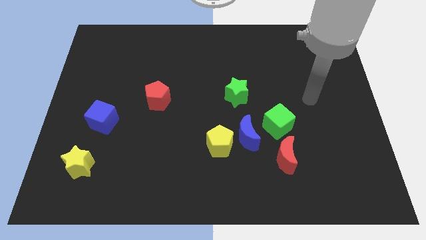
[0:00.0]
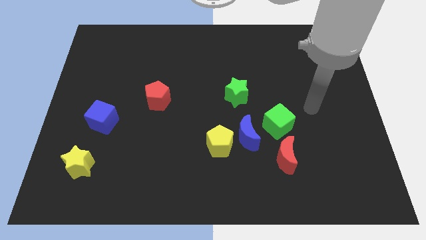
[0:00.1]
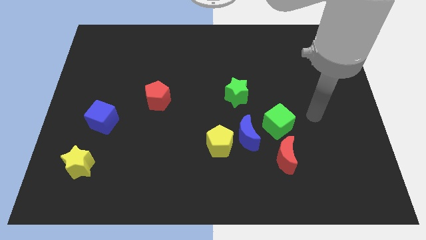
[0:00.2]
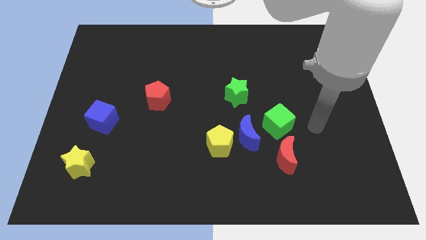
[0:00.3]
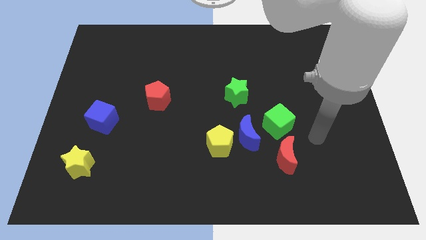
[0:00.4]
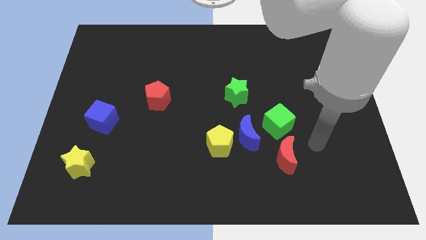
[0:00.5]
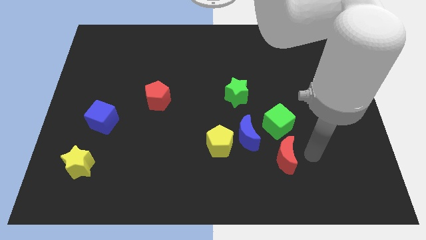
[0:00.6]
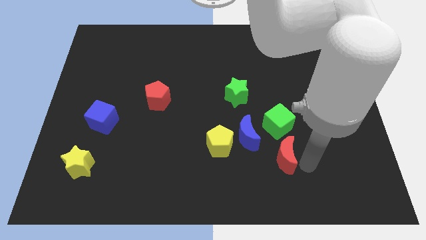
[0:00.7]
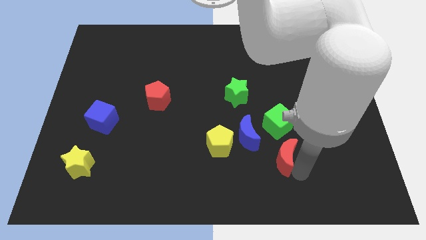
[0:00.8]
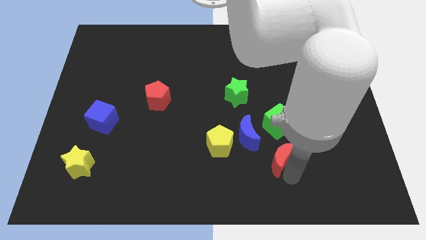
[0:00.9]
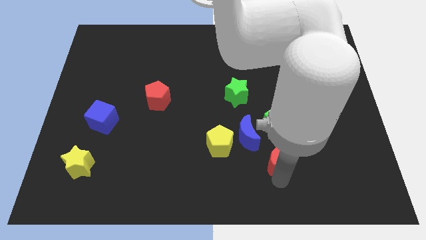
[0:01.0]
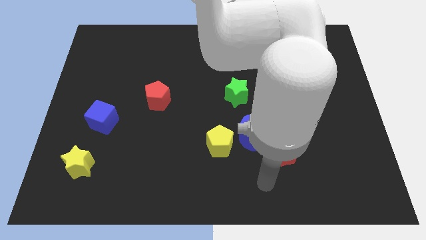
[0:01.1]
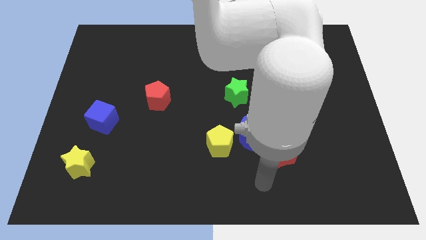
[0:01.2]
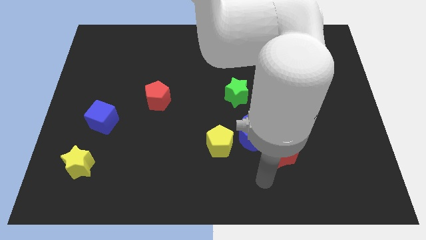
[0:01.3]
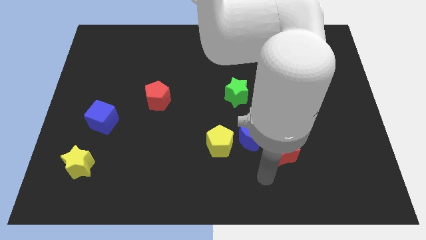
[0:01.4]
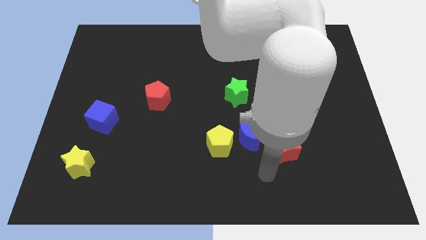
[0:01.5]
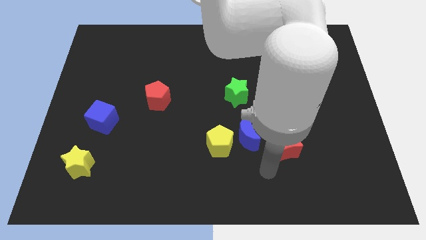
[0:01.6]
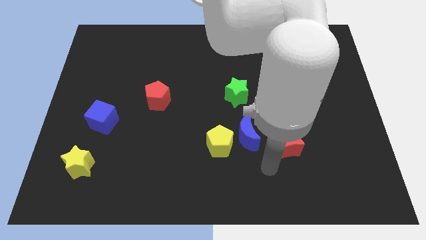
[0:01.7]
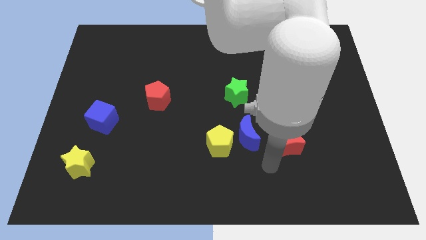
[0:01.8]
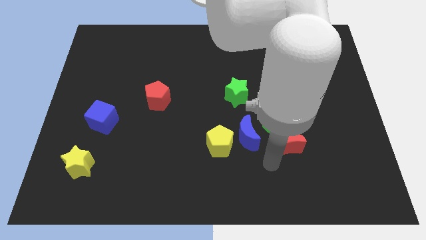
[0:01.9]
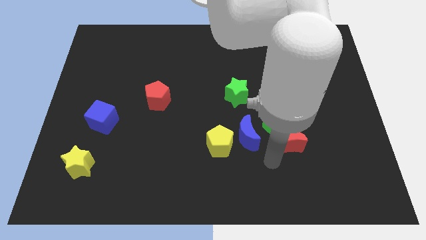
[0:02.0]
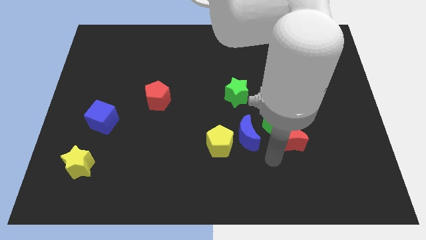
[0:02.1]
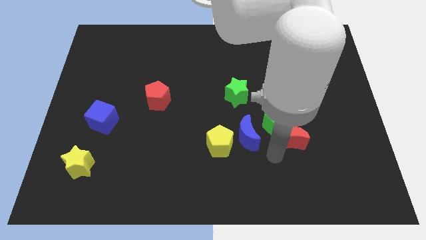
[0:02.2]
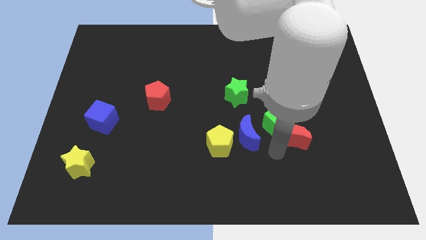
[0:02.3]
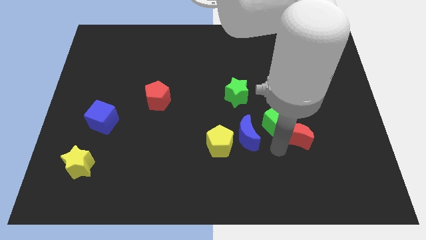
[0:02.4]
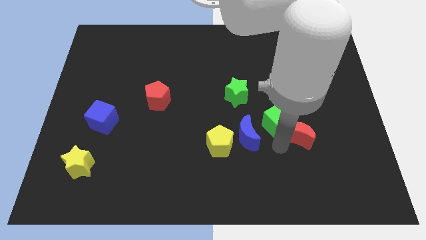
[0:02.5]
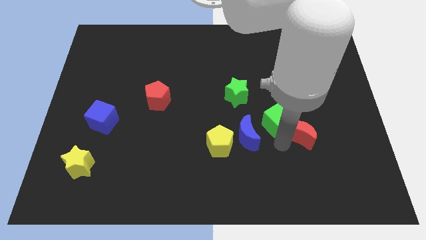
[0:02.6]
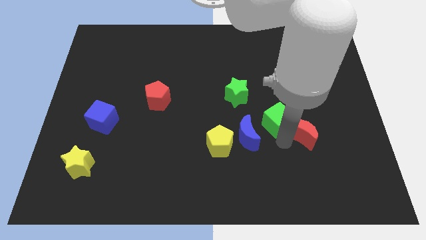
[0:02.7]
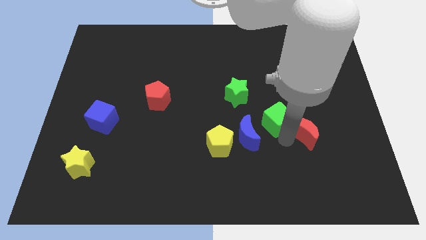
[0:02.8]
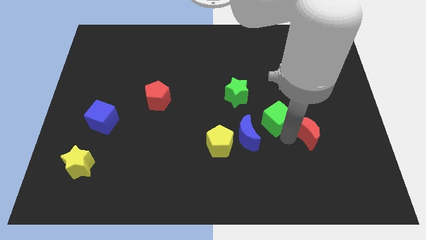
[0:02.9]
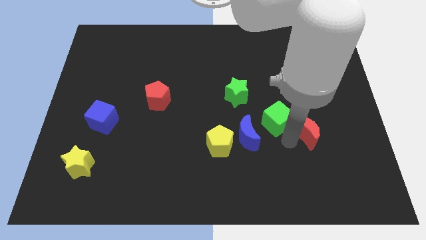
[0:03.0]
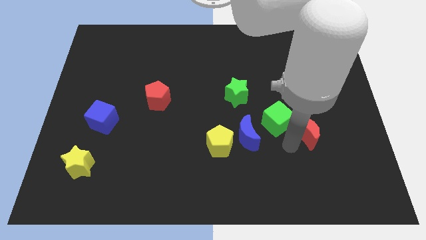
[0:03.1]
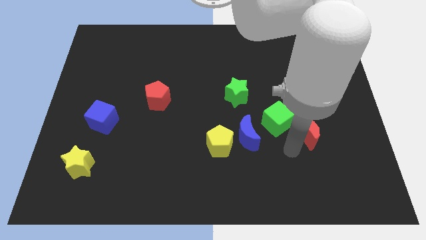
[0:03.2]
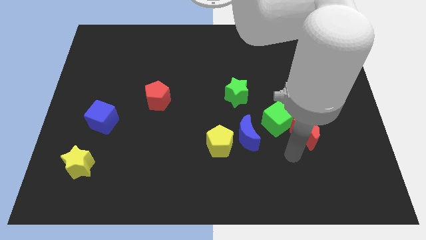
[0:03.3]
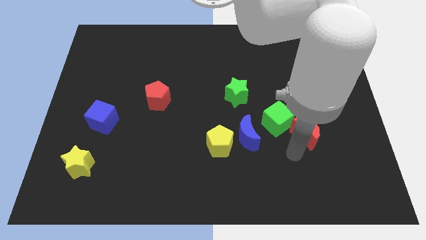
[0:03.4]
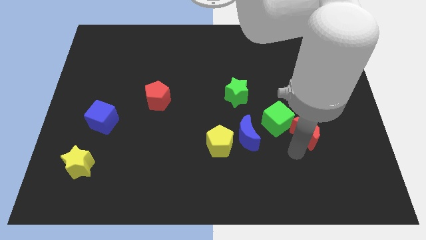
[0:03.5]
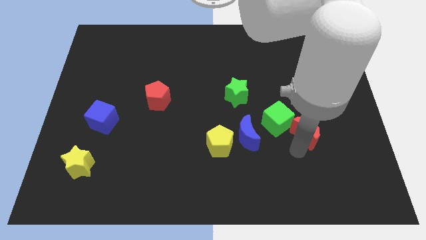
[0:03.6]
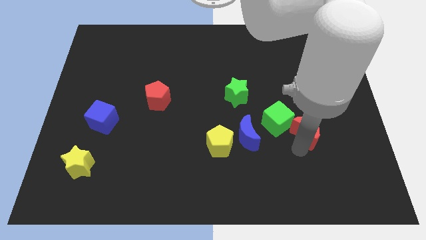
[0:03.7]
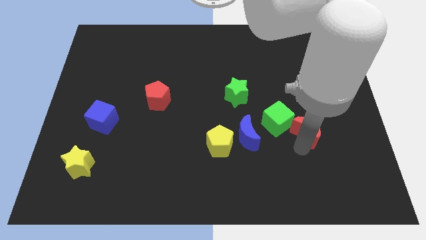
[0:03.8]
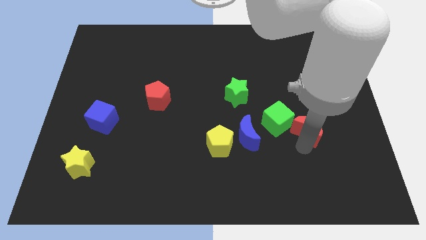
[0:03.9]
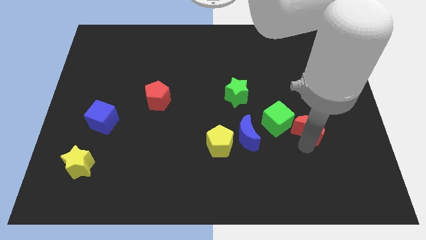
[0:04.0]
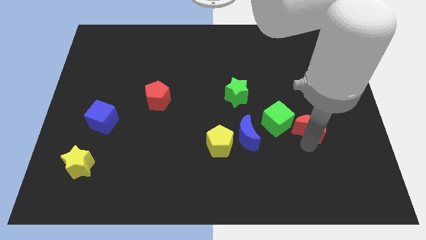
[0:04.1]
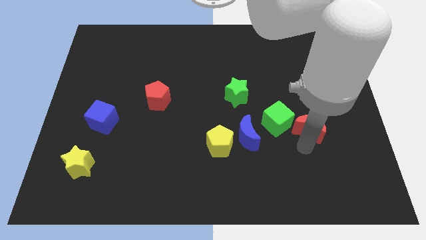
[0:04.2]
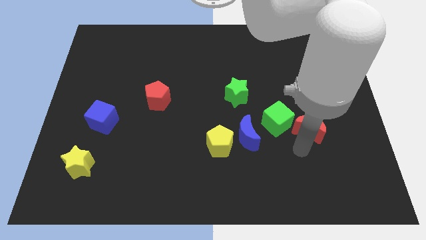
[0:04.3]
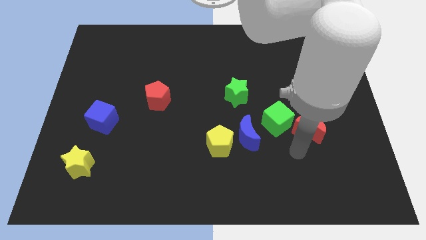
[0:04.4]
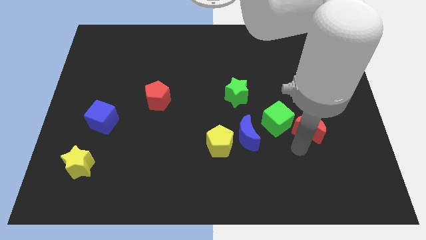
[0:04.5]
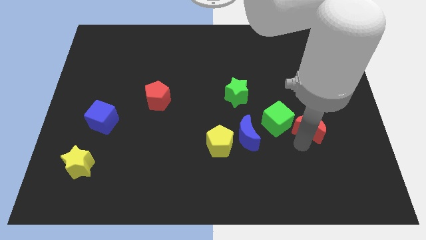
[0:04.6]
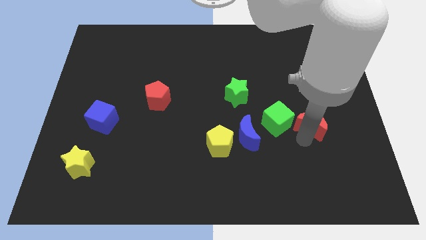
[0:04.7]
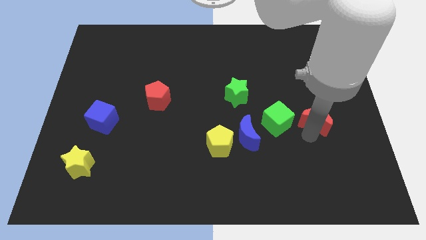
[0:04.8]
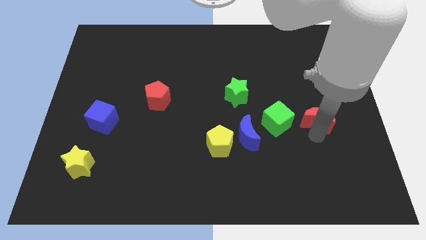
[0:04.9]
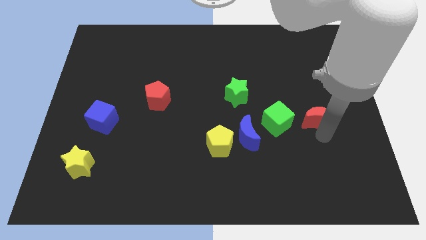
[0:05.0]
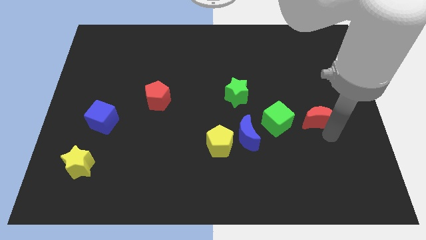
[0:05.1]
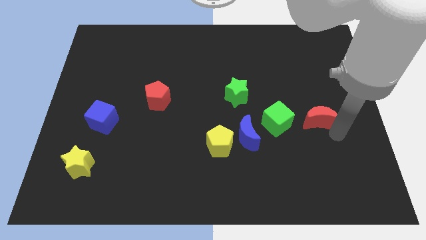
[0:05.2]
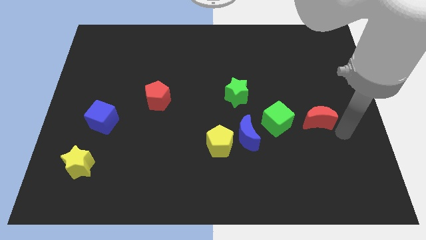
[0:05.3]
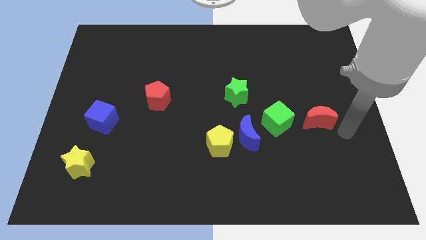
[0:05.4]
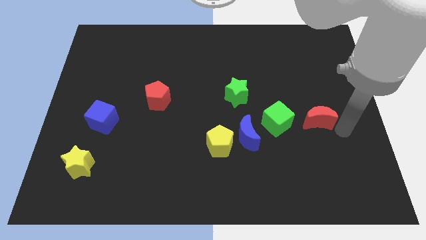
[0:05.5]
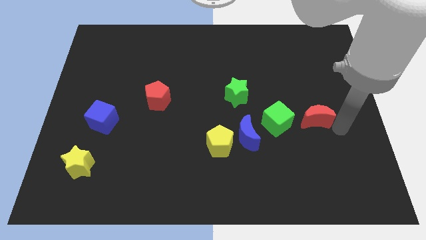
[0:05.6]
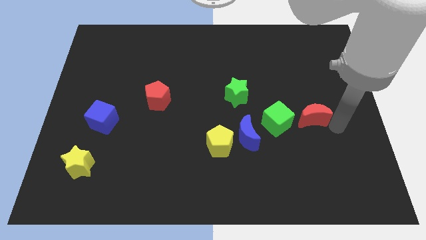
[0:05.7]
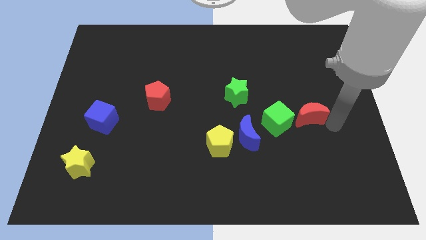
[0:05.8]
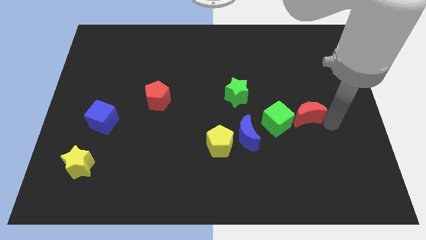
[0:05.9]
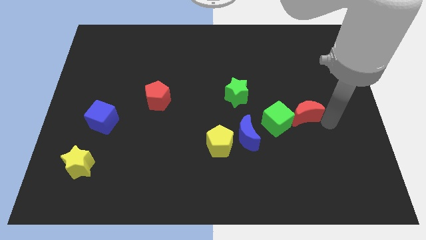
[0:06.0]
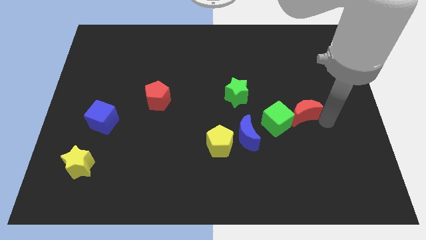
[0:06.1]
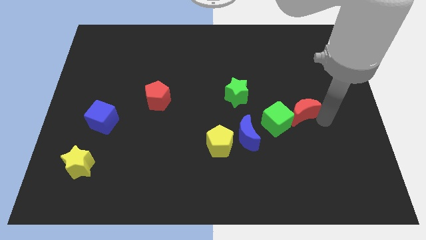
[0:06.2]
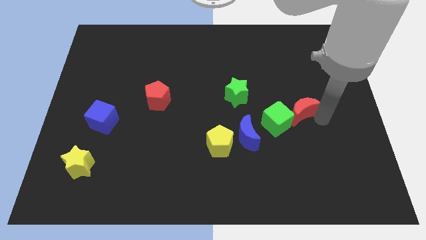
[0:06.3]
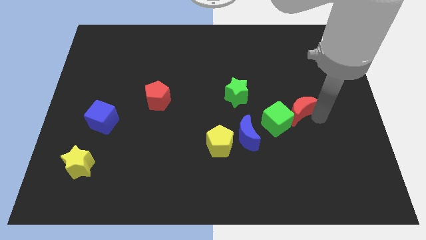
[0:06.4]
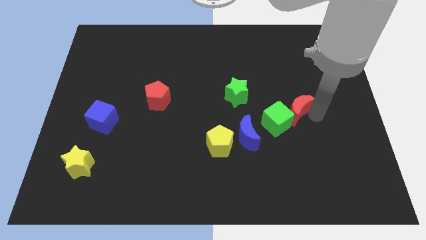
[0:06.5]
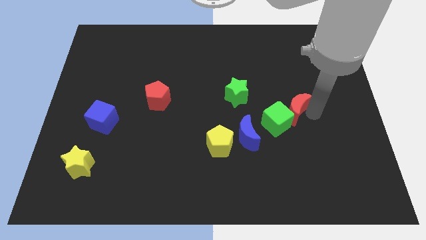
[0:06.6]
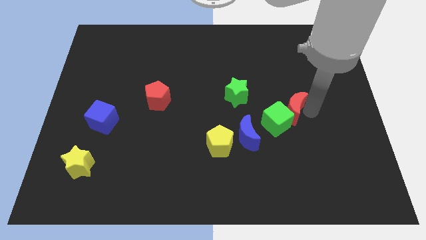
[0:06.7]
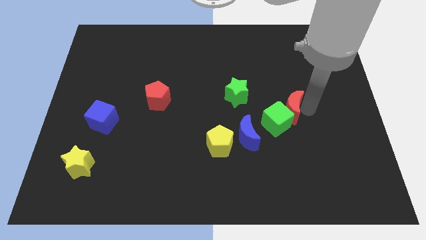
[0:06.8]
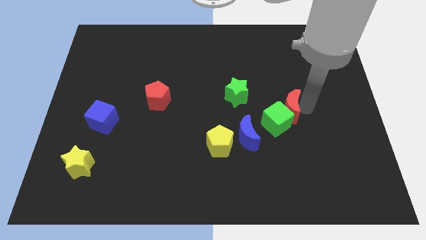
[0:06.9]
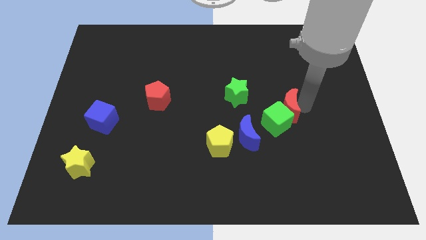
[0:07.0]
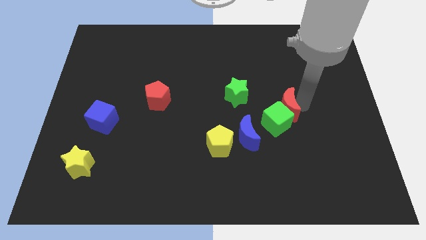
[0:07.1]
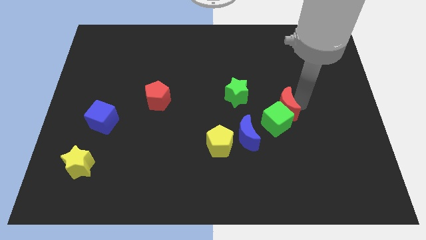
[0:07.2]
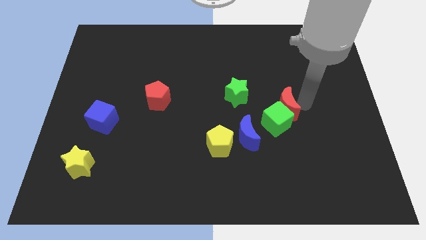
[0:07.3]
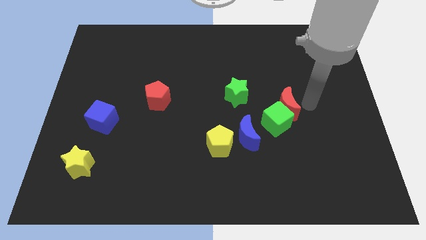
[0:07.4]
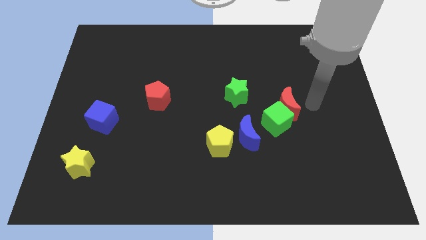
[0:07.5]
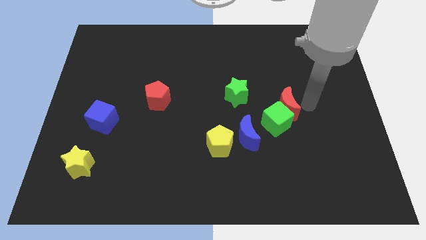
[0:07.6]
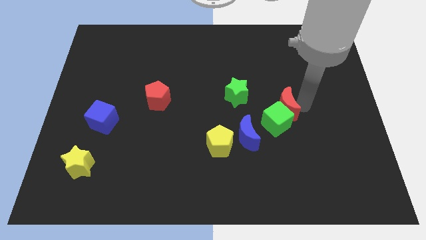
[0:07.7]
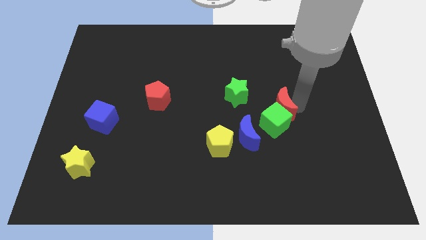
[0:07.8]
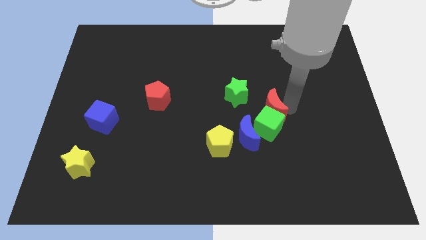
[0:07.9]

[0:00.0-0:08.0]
move the red moon up and then left a bit

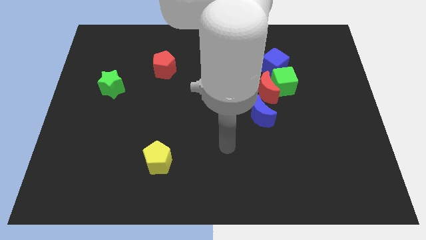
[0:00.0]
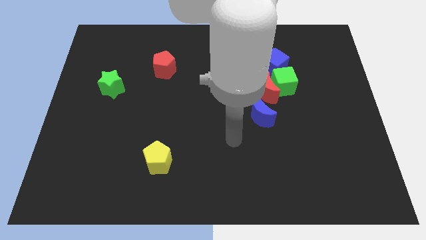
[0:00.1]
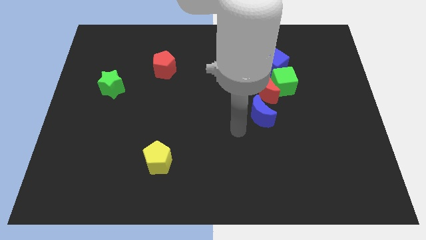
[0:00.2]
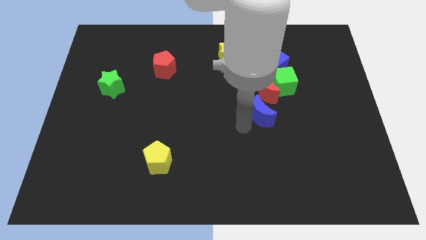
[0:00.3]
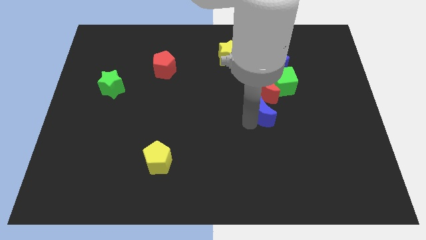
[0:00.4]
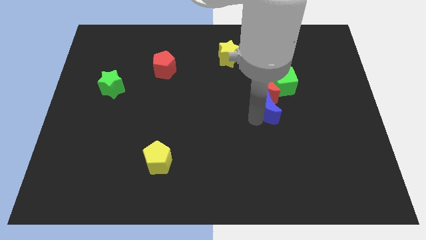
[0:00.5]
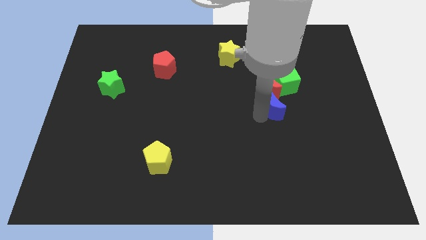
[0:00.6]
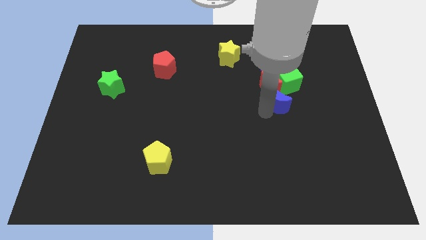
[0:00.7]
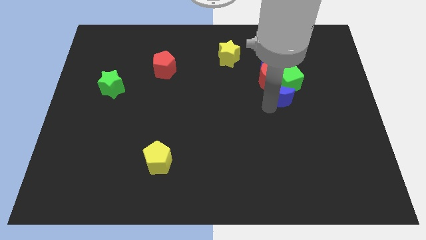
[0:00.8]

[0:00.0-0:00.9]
slide the blue moon a bit diagonally up and right
